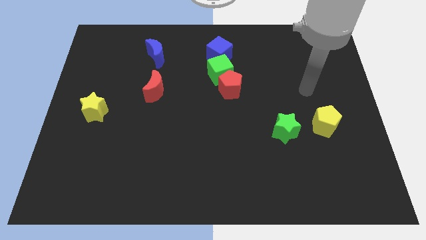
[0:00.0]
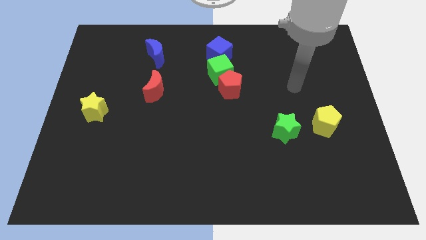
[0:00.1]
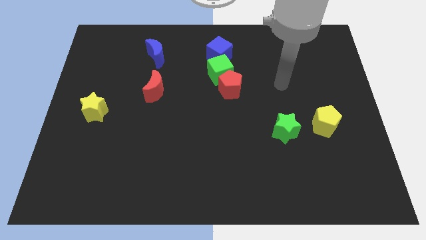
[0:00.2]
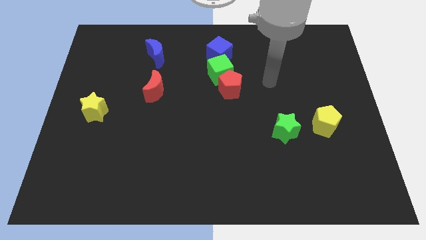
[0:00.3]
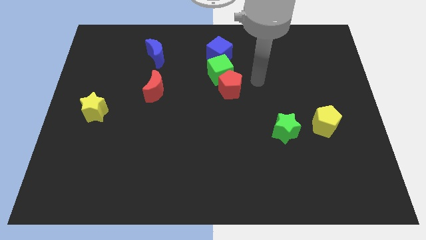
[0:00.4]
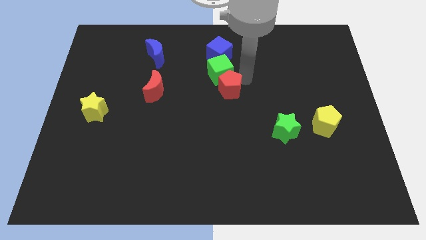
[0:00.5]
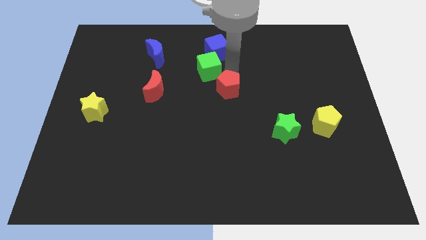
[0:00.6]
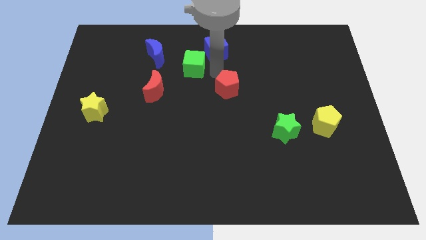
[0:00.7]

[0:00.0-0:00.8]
move the red pentagon away from the green cube

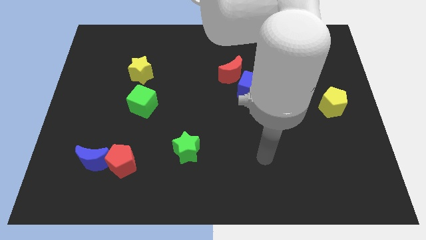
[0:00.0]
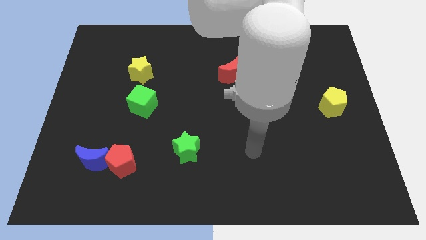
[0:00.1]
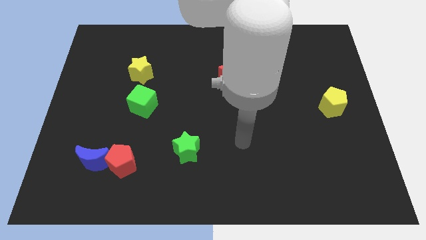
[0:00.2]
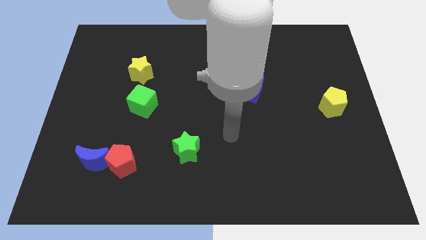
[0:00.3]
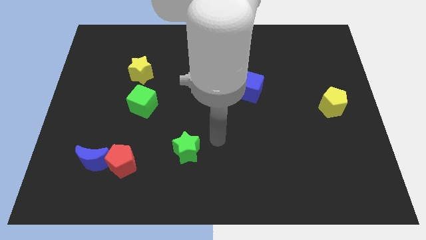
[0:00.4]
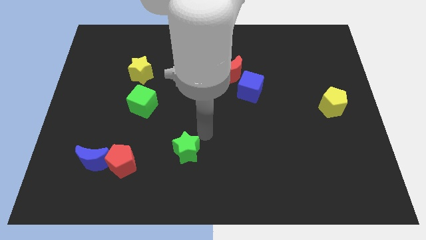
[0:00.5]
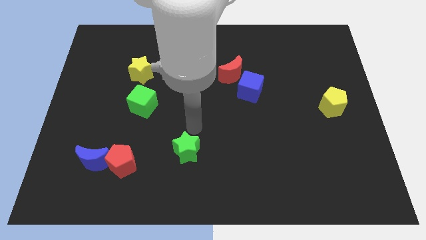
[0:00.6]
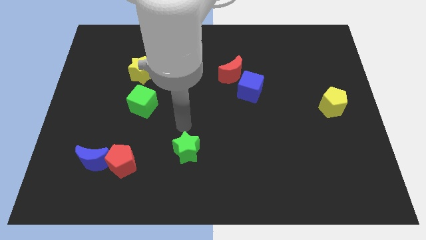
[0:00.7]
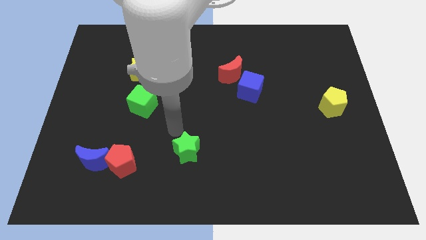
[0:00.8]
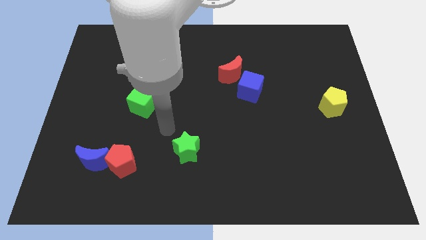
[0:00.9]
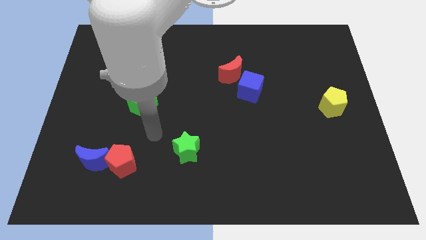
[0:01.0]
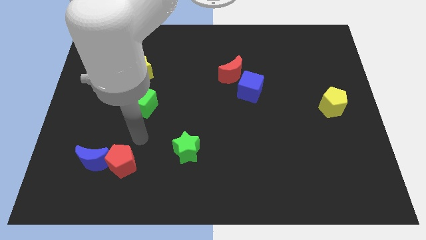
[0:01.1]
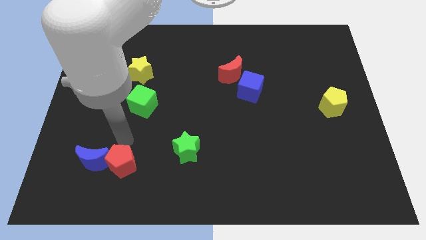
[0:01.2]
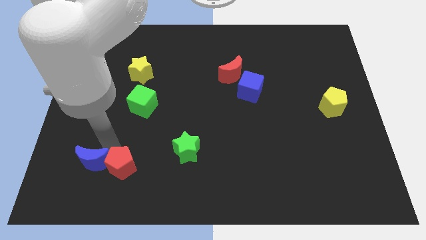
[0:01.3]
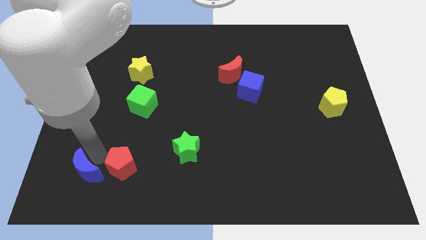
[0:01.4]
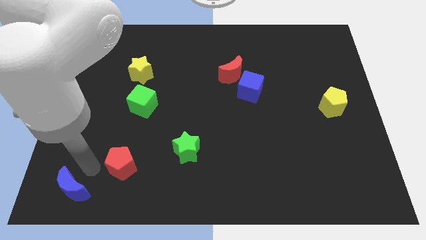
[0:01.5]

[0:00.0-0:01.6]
pull the red pentagon apart from the blue moon

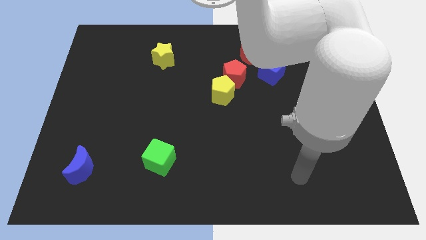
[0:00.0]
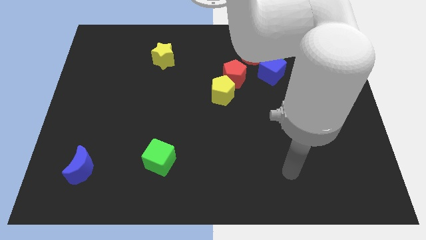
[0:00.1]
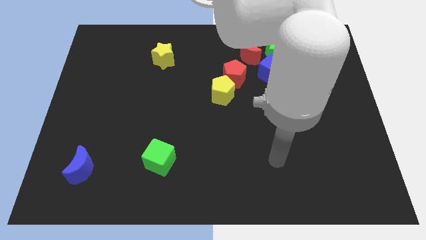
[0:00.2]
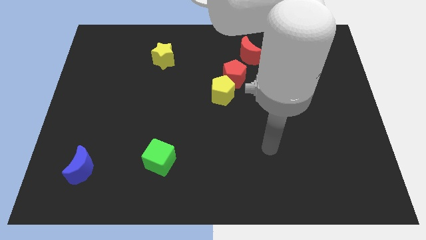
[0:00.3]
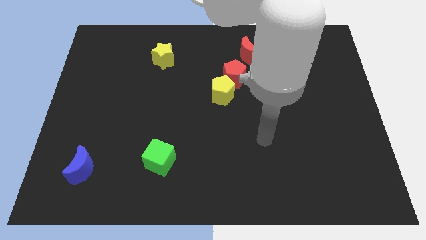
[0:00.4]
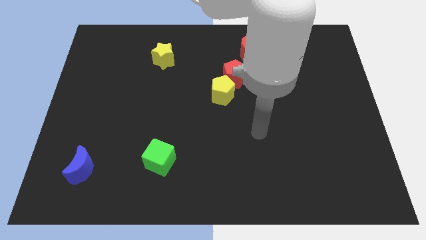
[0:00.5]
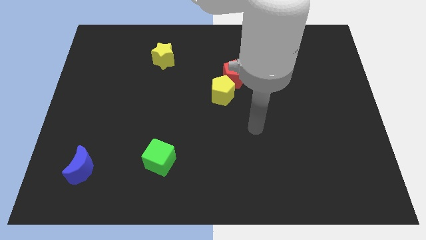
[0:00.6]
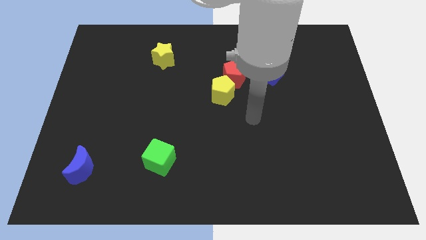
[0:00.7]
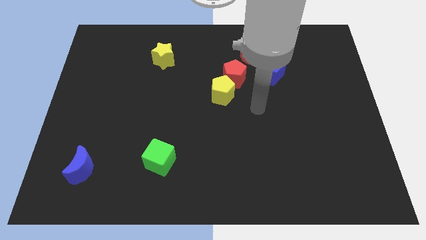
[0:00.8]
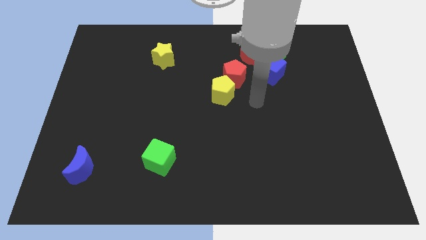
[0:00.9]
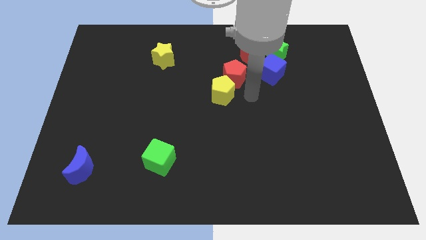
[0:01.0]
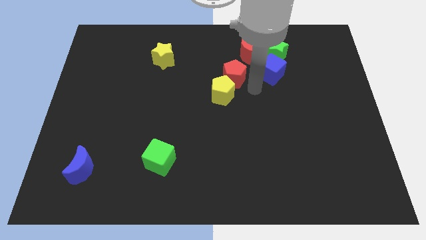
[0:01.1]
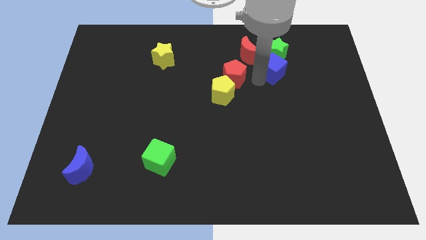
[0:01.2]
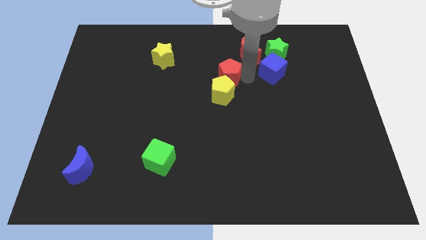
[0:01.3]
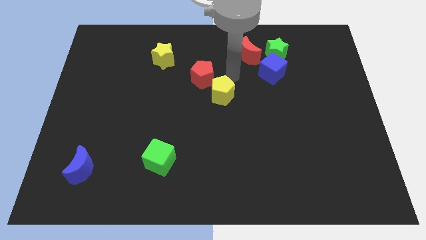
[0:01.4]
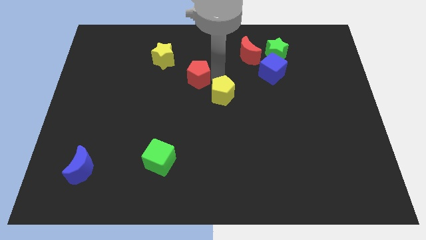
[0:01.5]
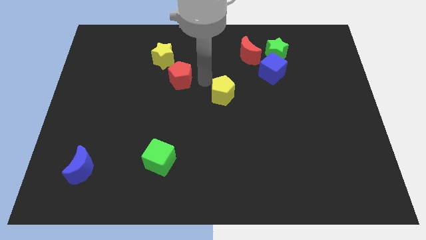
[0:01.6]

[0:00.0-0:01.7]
separate the yellow pentagon from the red pentagon

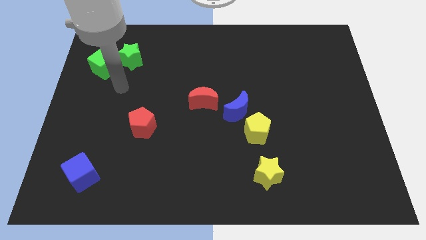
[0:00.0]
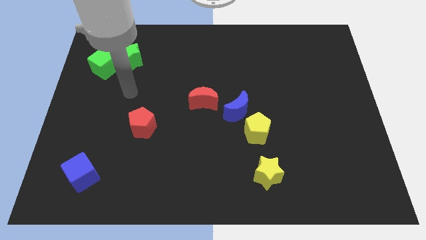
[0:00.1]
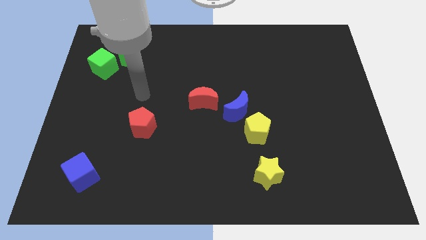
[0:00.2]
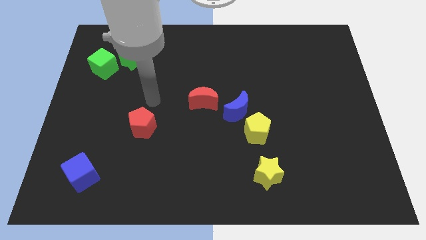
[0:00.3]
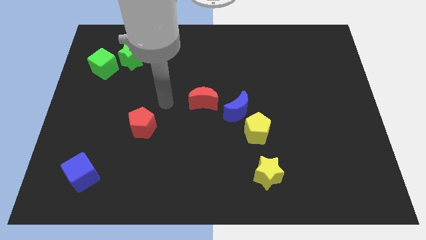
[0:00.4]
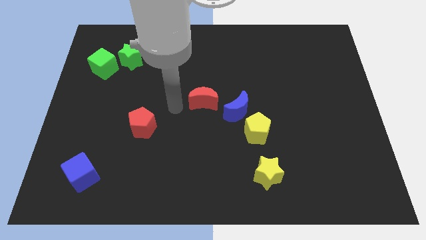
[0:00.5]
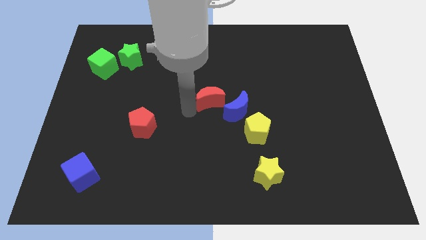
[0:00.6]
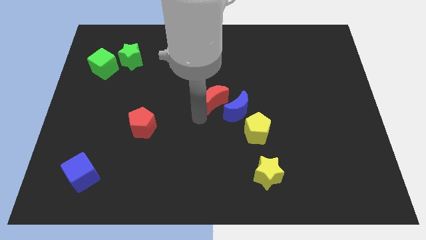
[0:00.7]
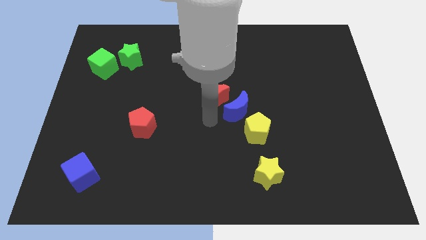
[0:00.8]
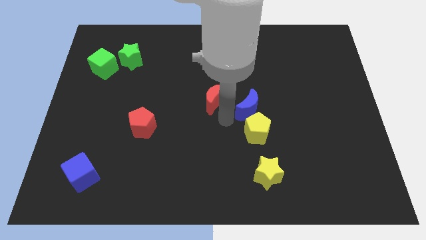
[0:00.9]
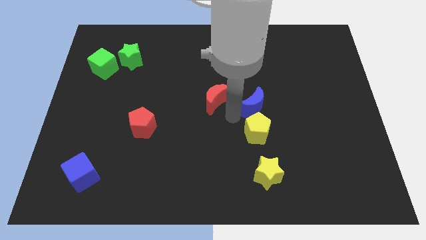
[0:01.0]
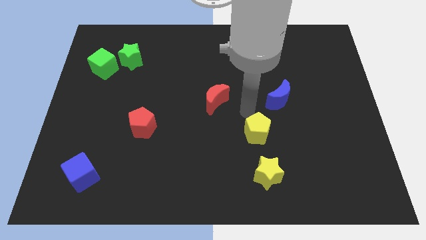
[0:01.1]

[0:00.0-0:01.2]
separate the yellow pentagon from the blue moon

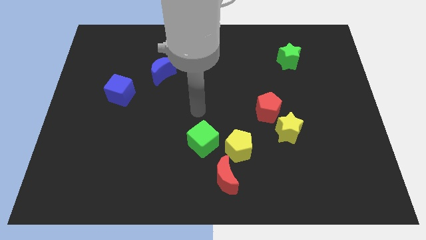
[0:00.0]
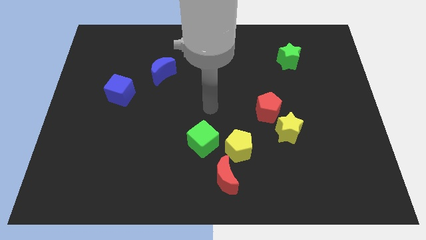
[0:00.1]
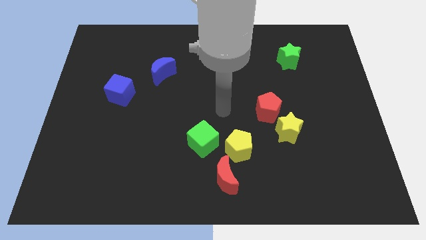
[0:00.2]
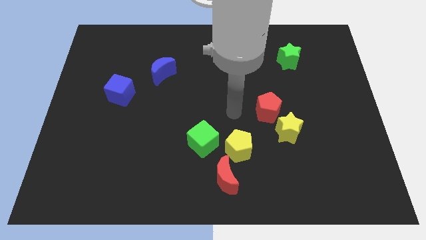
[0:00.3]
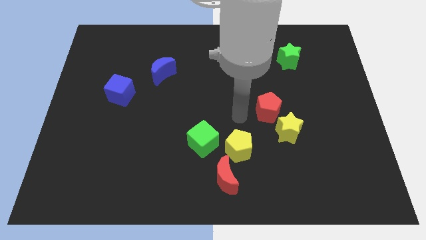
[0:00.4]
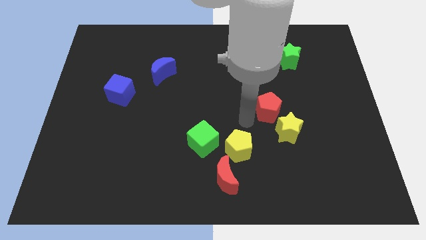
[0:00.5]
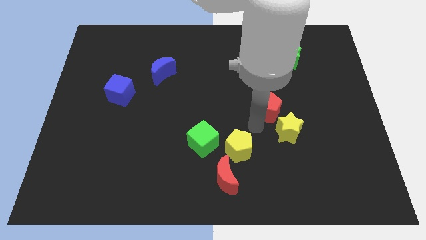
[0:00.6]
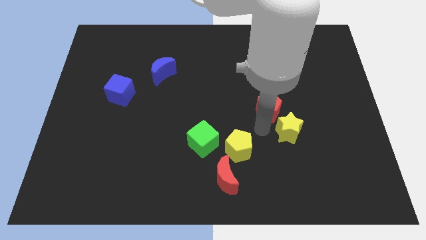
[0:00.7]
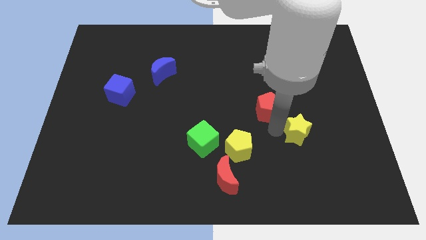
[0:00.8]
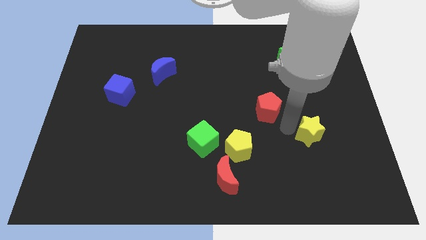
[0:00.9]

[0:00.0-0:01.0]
pull the red pentagon apart from the yellow star

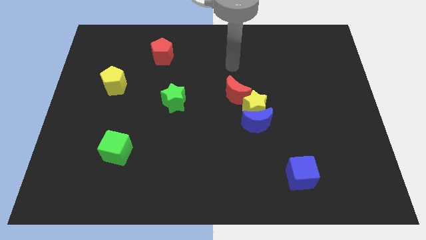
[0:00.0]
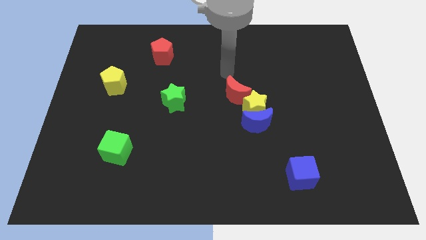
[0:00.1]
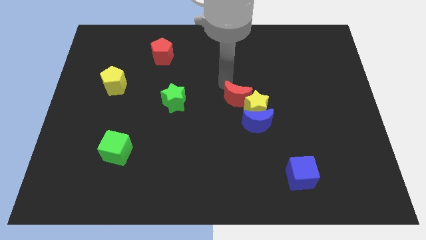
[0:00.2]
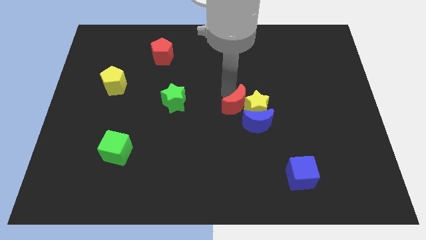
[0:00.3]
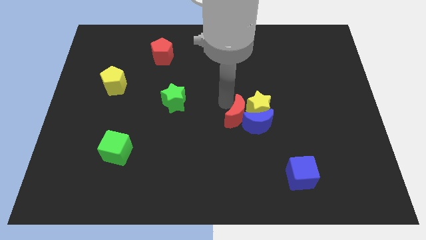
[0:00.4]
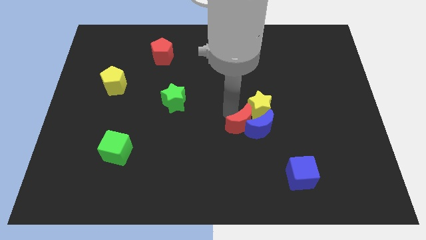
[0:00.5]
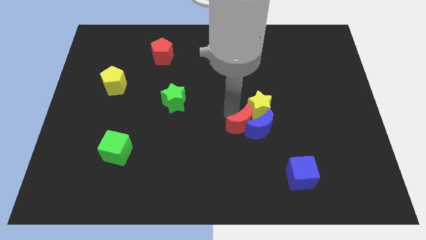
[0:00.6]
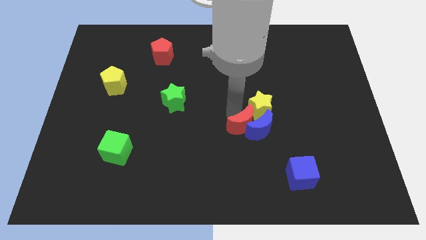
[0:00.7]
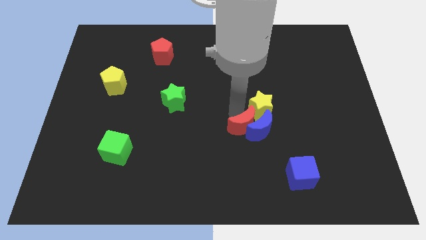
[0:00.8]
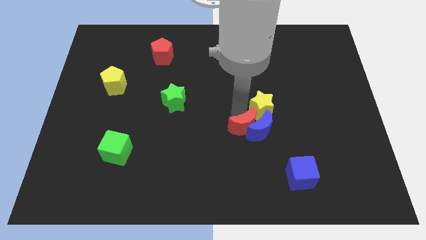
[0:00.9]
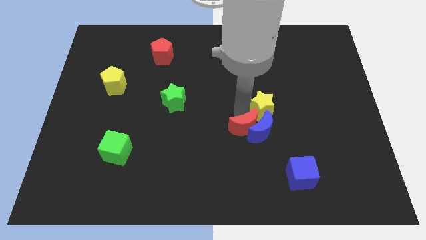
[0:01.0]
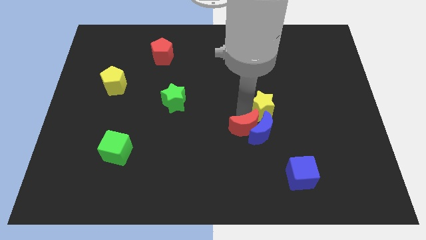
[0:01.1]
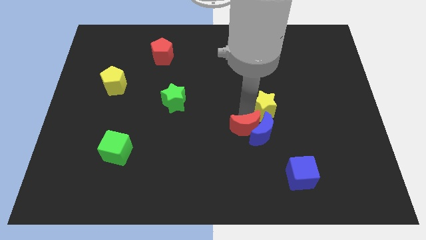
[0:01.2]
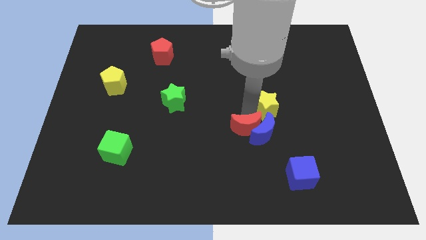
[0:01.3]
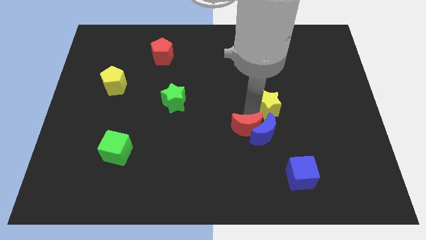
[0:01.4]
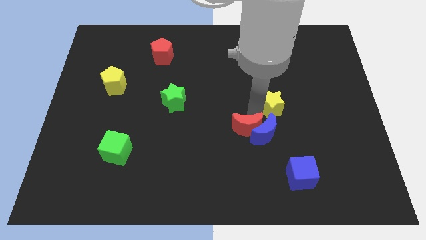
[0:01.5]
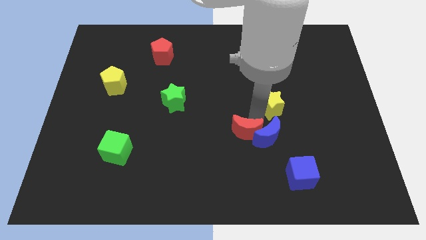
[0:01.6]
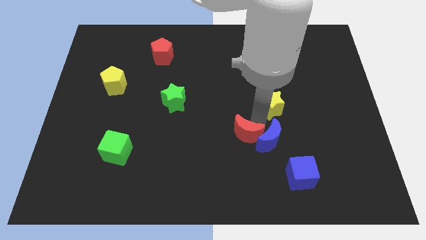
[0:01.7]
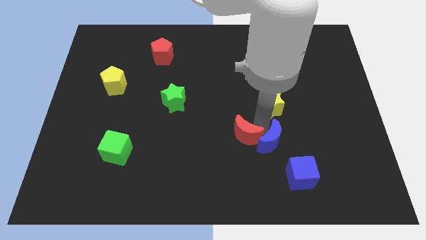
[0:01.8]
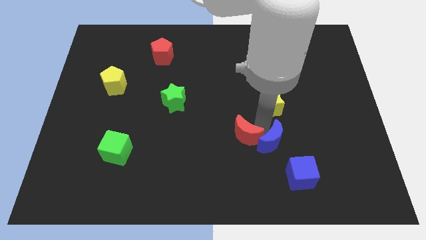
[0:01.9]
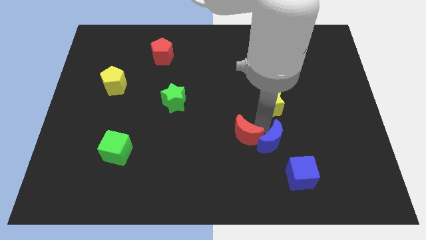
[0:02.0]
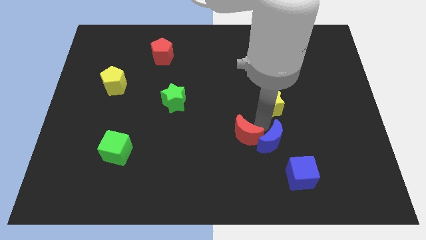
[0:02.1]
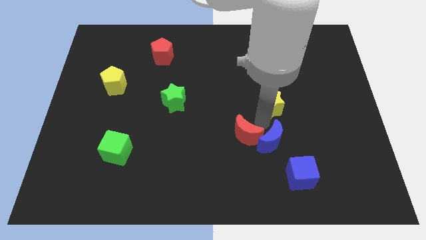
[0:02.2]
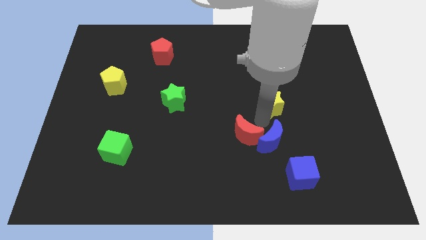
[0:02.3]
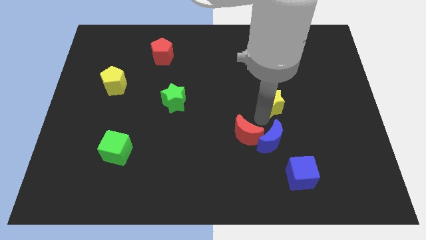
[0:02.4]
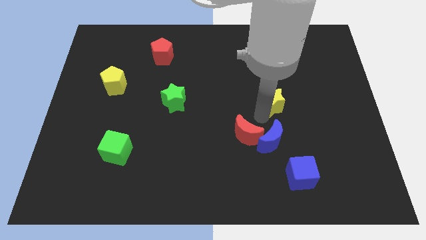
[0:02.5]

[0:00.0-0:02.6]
separate the yellow star from the blue moon and red moon

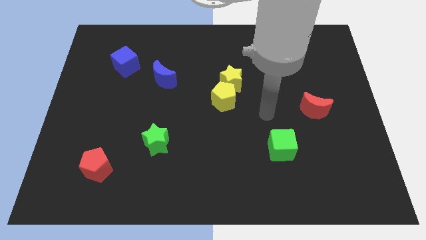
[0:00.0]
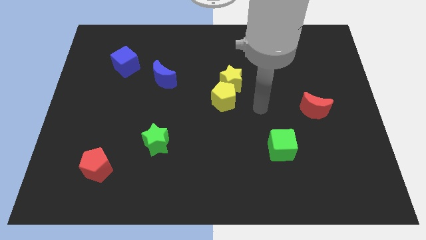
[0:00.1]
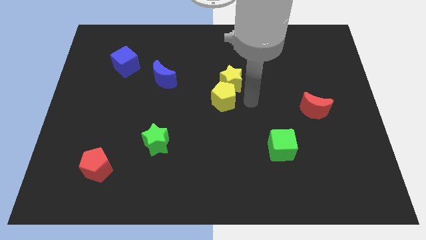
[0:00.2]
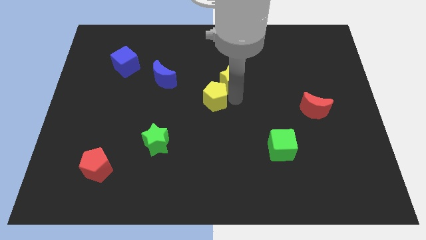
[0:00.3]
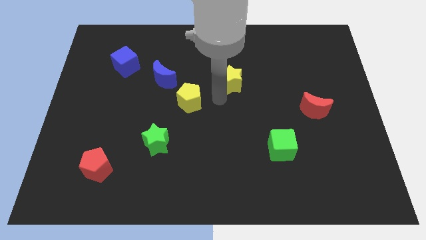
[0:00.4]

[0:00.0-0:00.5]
separate the yellow star from the yellow pentagon
